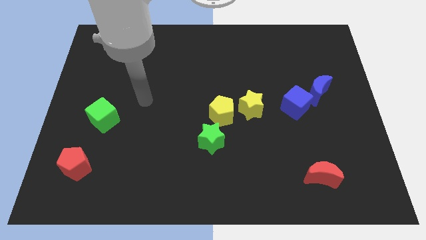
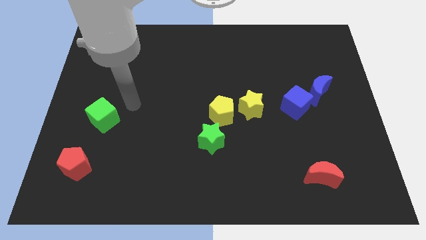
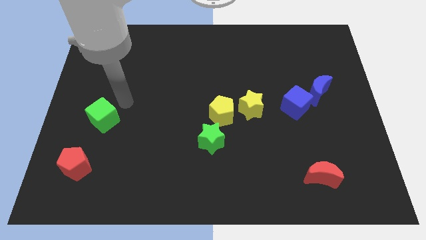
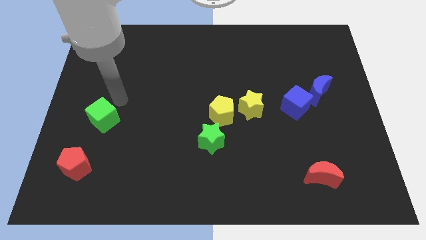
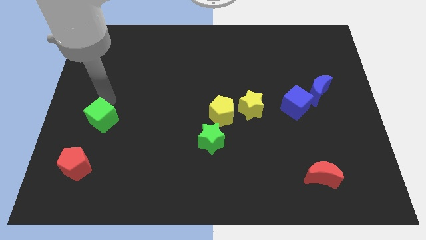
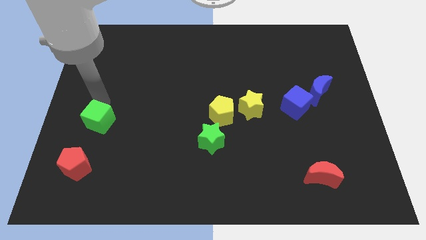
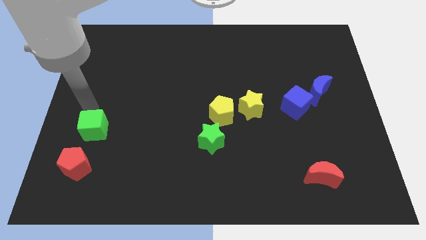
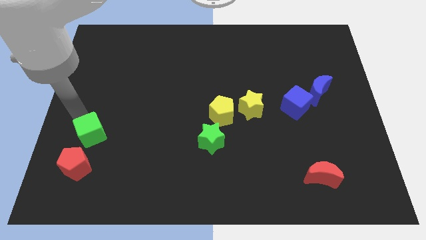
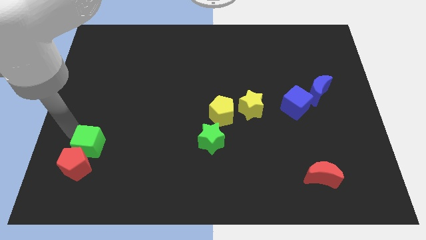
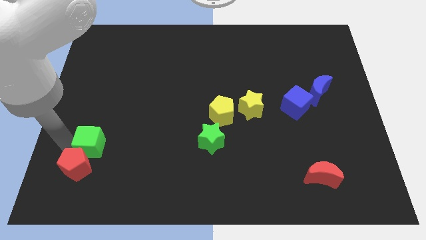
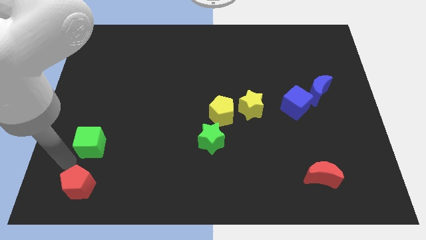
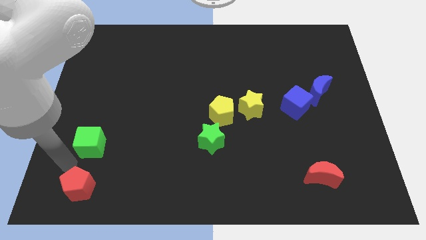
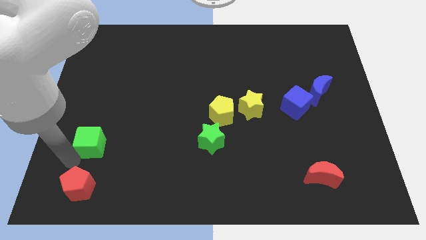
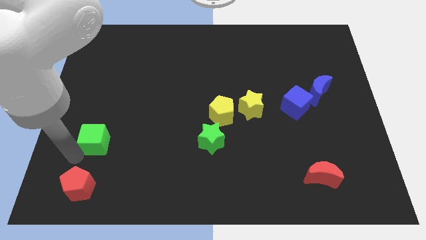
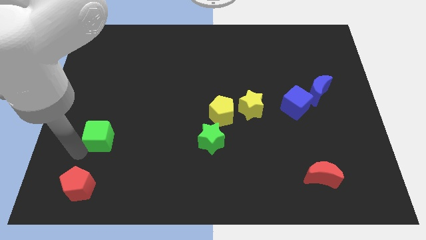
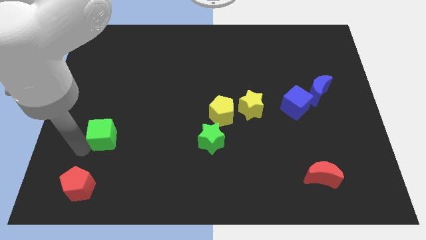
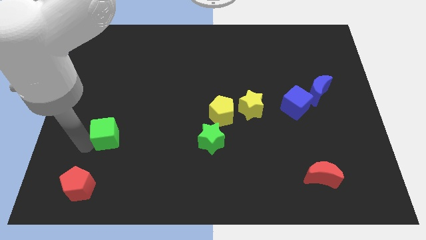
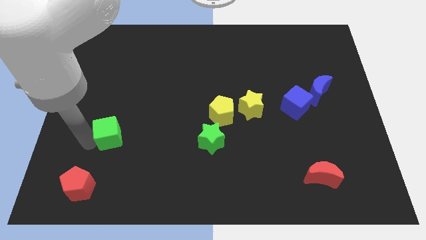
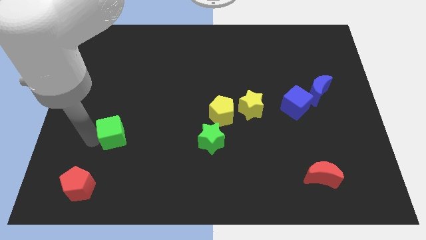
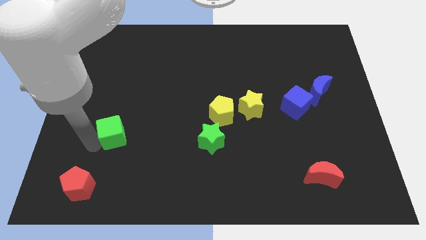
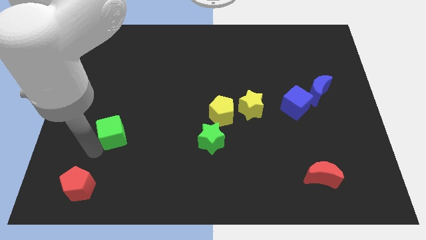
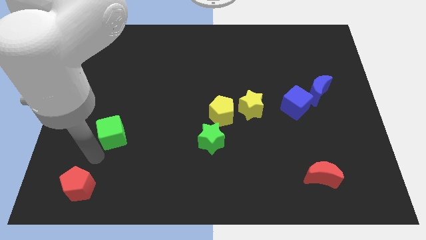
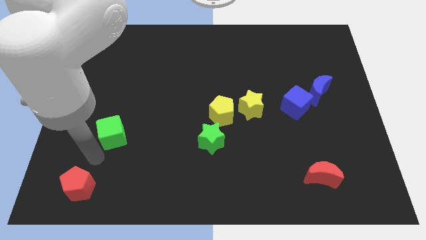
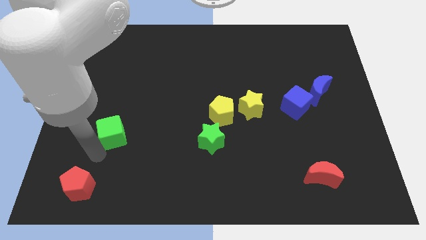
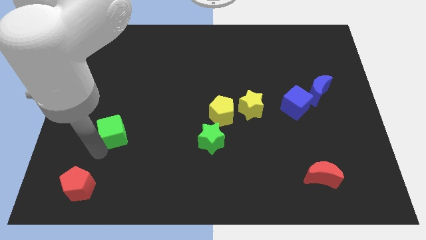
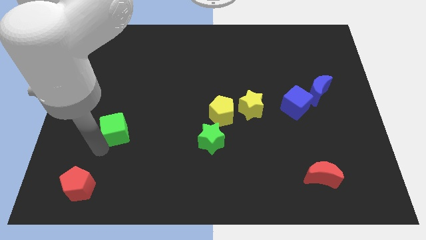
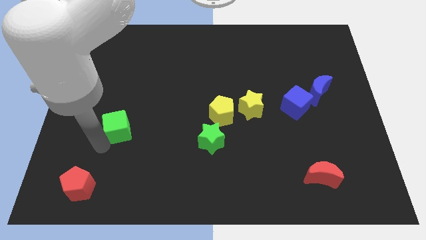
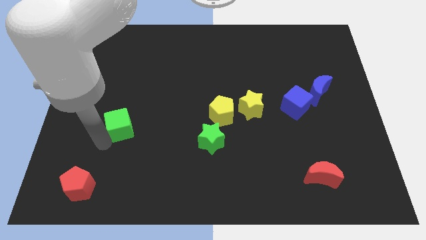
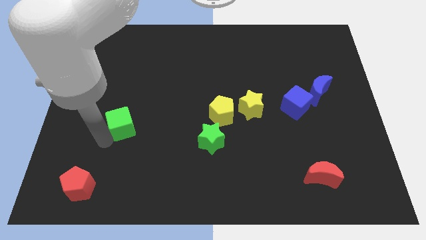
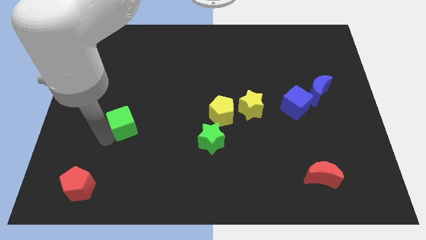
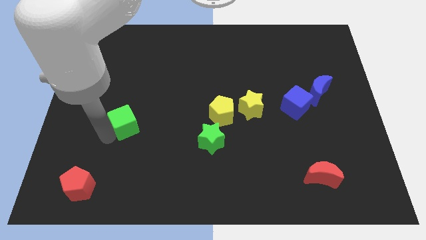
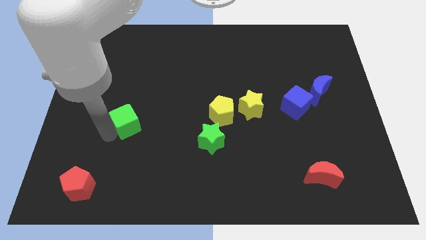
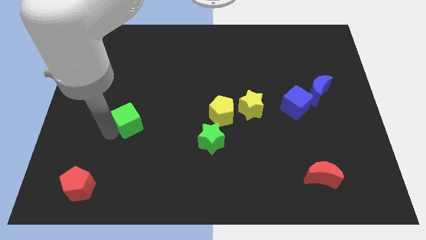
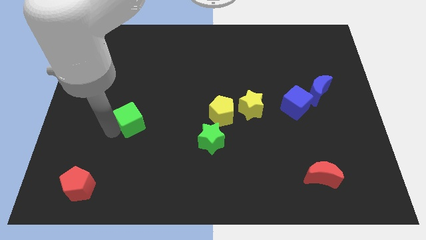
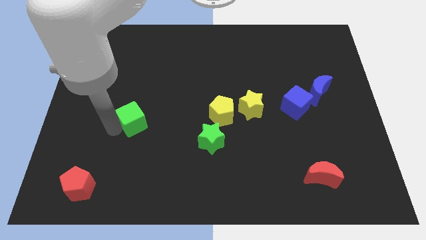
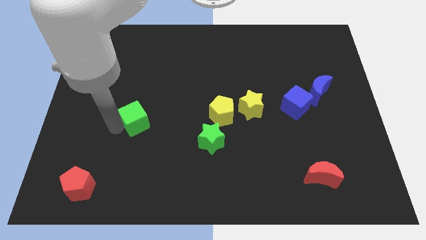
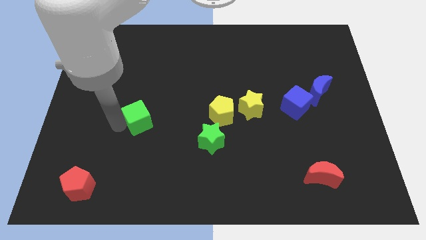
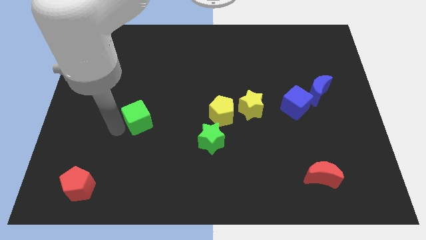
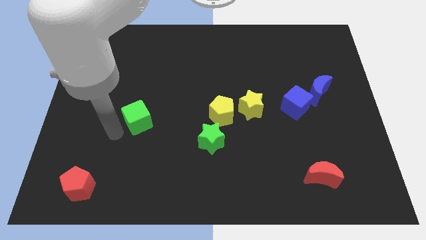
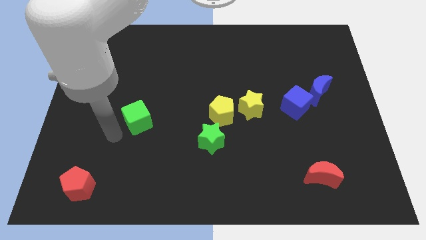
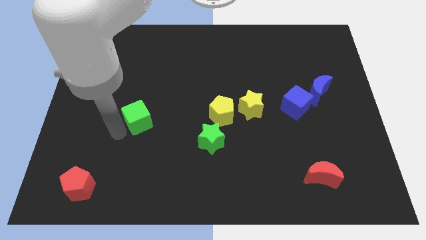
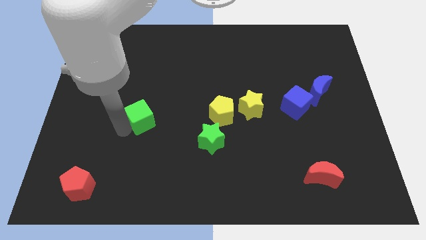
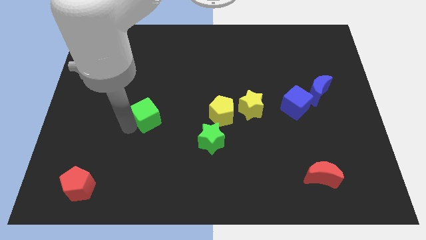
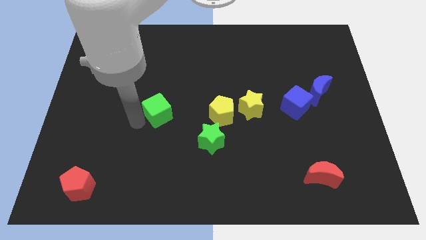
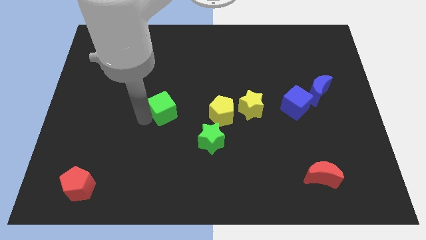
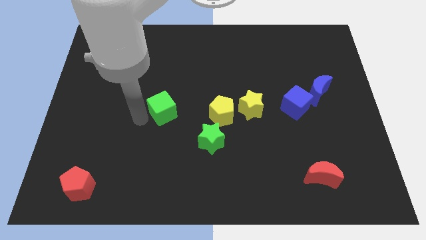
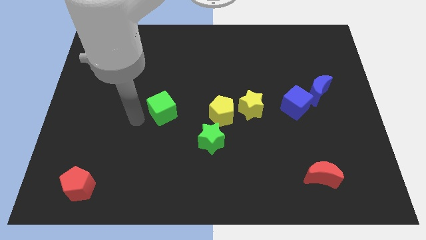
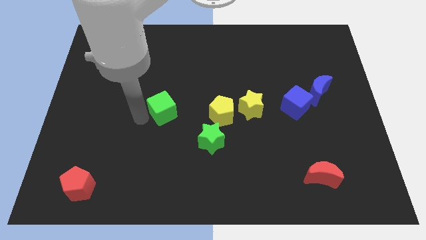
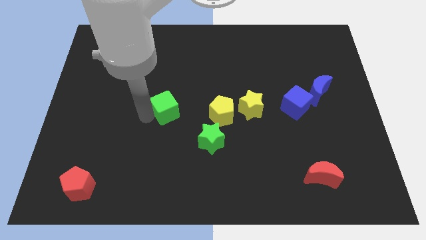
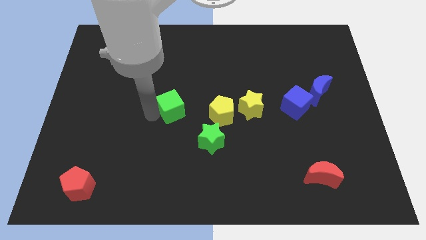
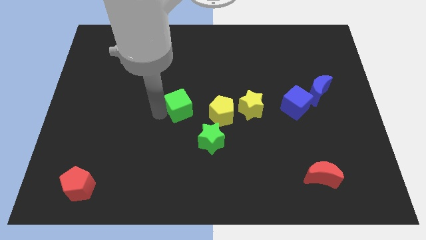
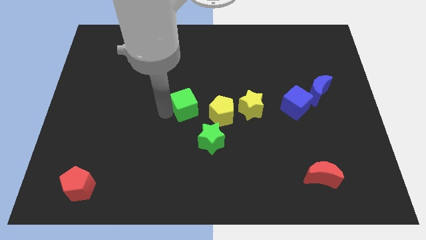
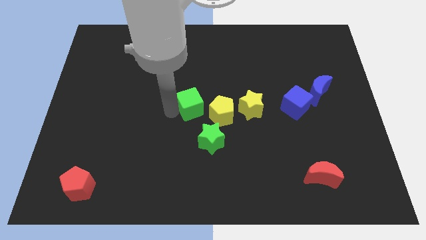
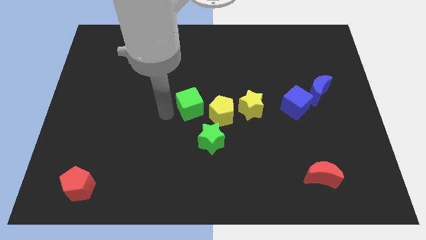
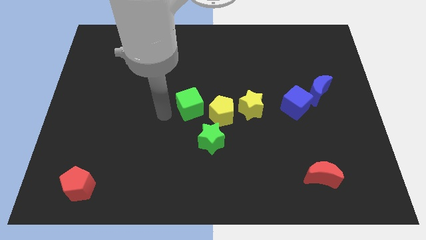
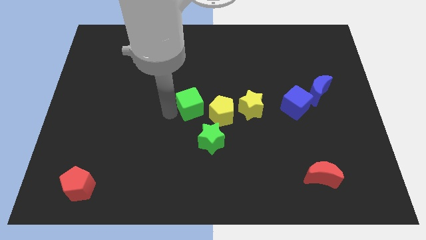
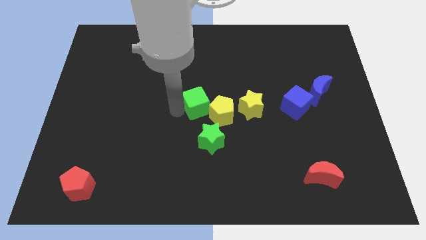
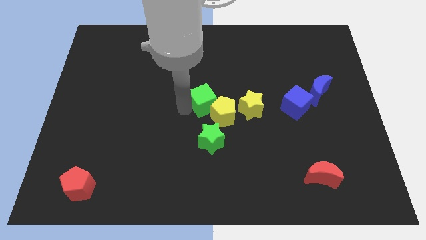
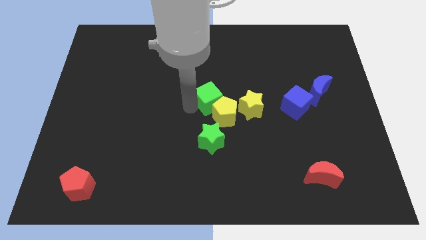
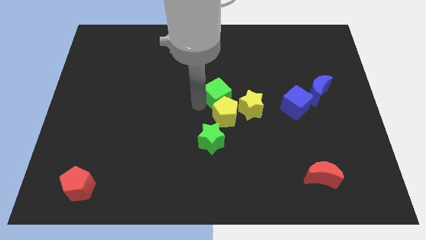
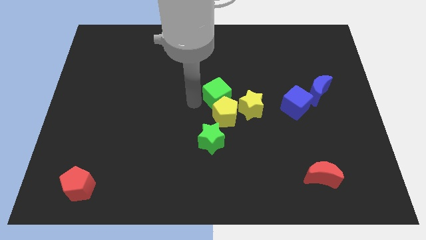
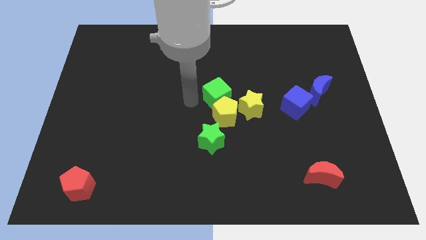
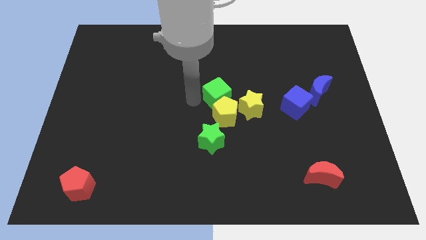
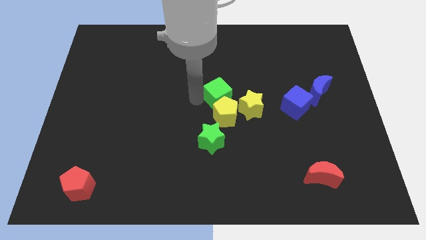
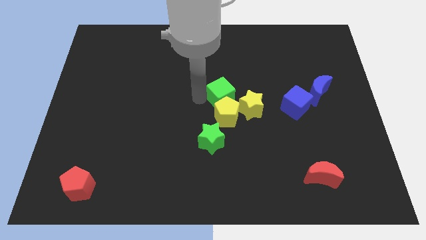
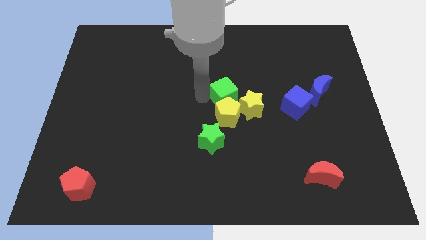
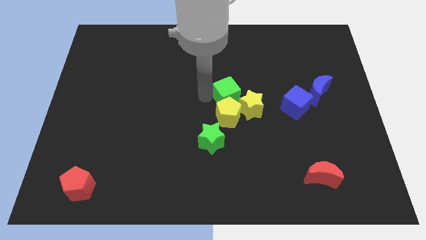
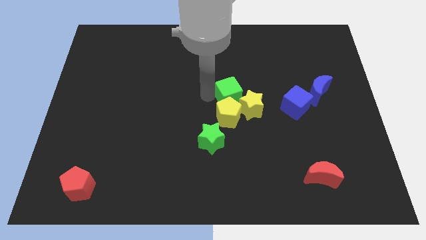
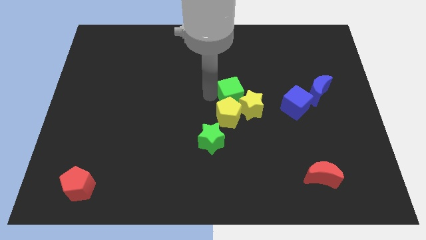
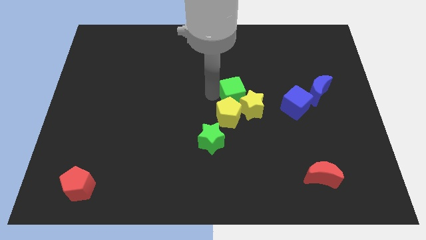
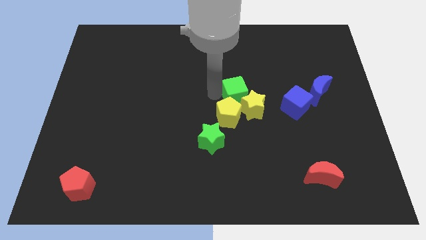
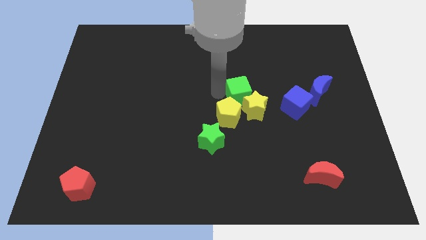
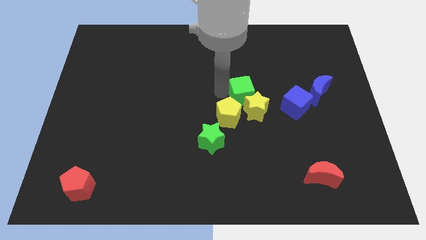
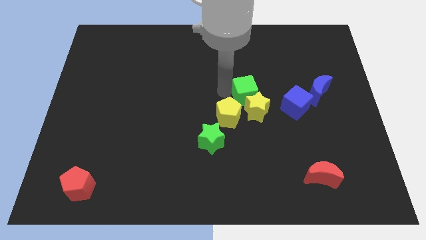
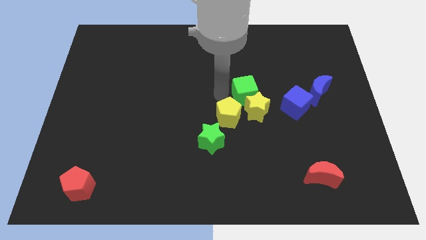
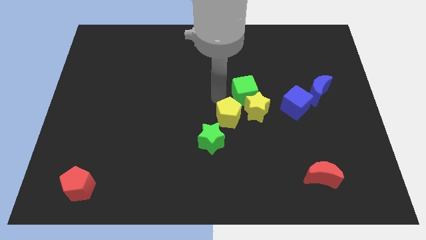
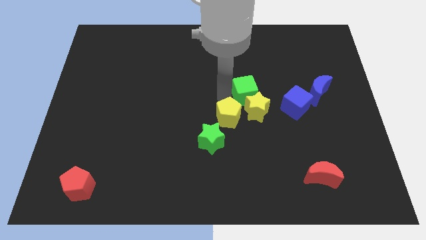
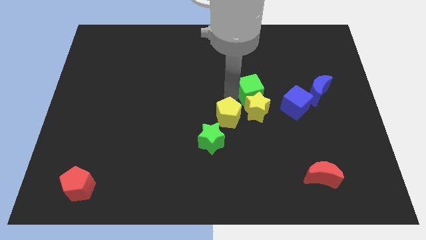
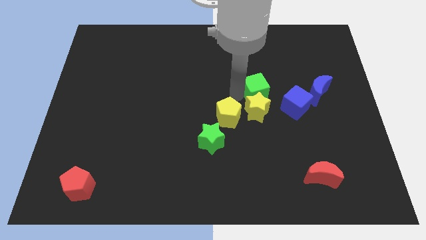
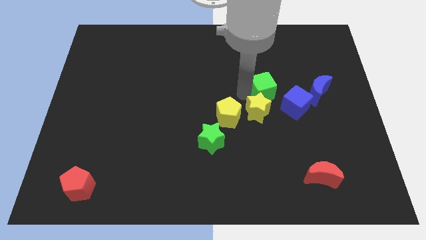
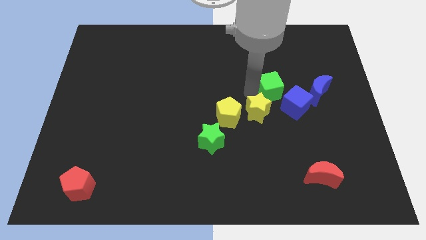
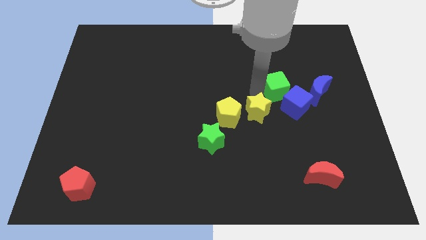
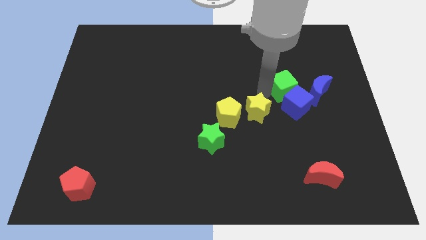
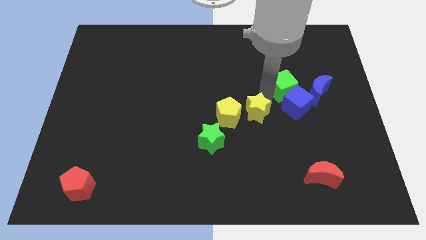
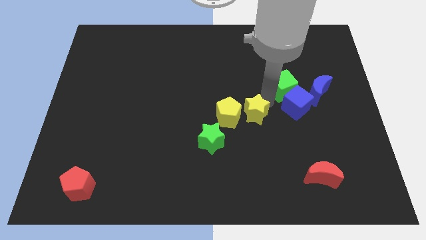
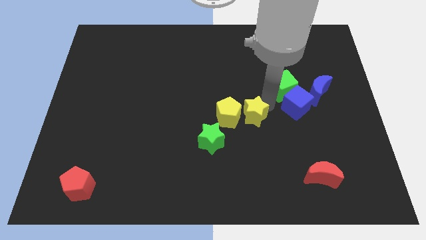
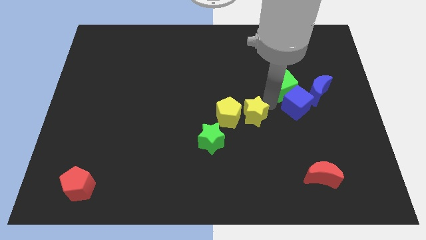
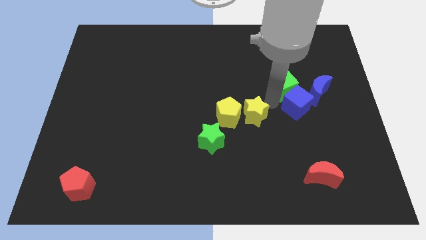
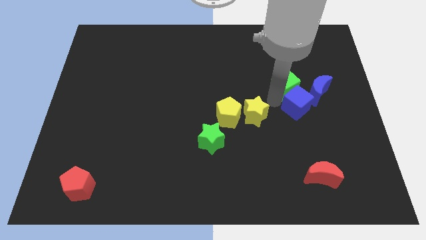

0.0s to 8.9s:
slide the green cube to the top left of the blue moon
